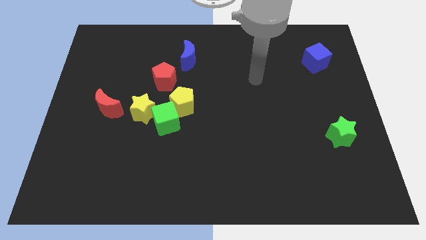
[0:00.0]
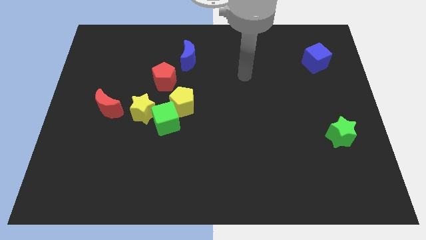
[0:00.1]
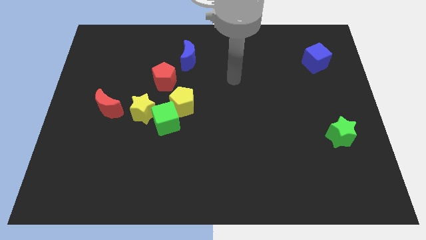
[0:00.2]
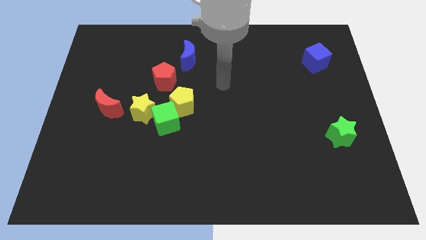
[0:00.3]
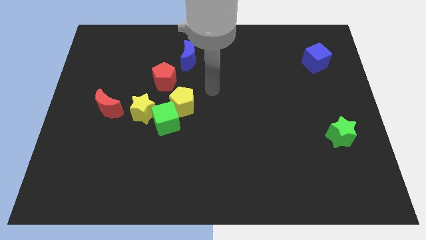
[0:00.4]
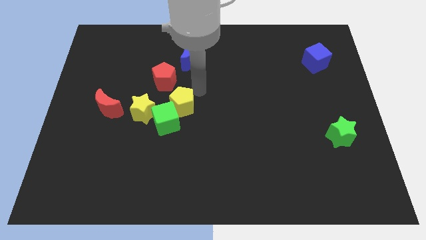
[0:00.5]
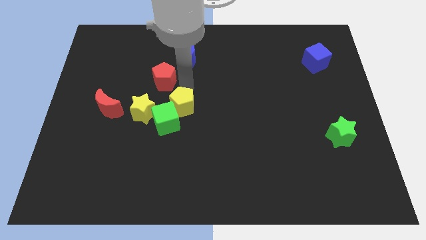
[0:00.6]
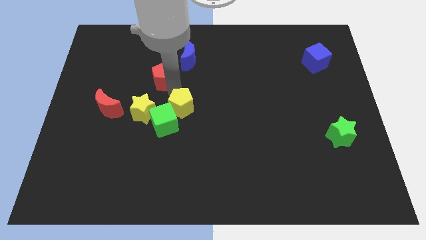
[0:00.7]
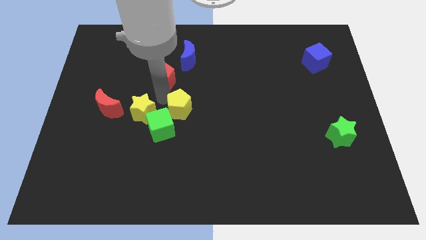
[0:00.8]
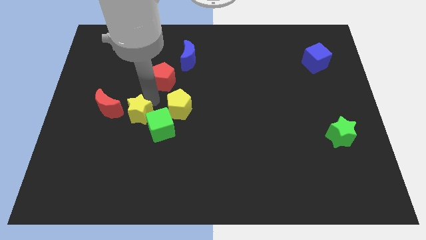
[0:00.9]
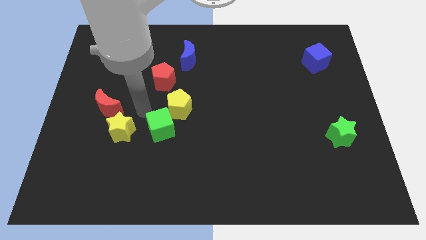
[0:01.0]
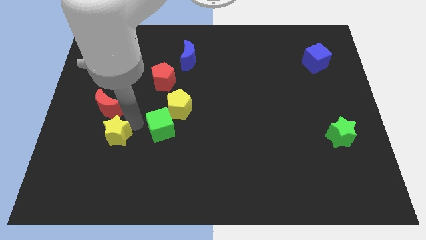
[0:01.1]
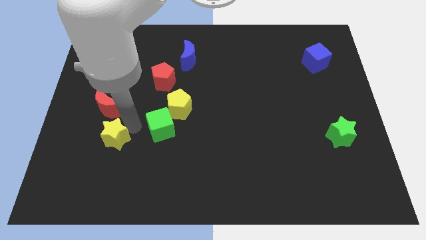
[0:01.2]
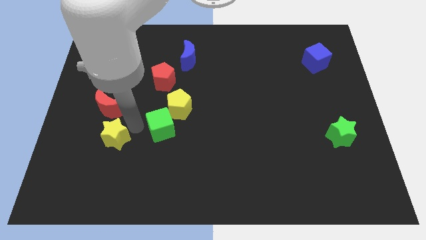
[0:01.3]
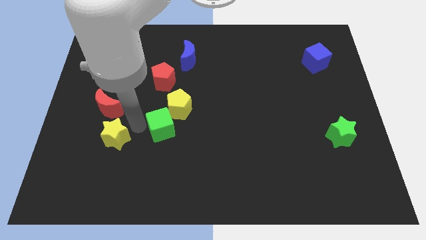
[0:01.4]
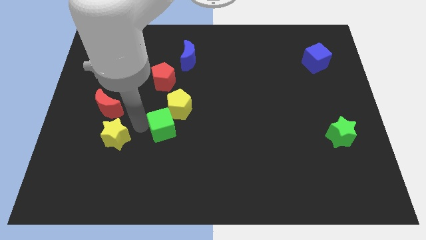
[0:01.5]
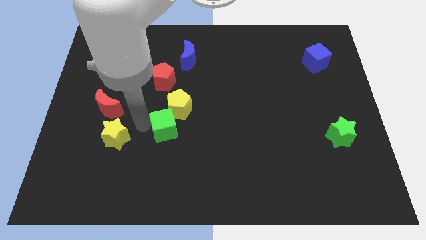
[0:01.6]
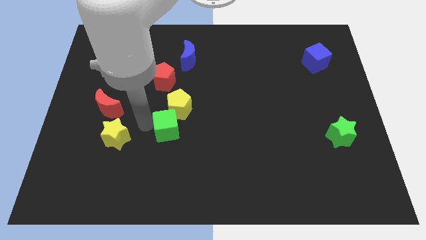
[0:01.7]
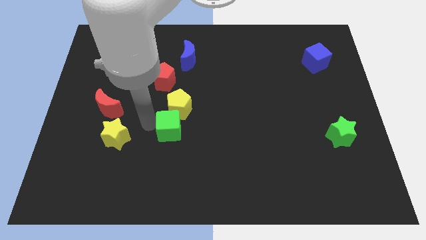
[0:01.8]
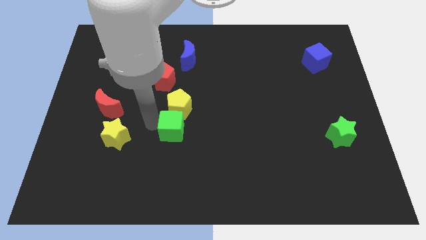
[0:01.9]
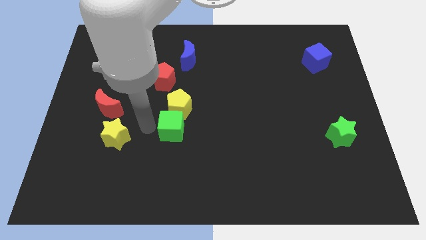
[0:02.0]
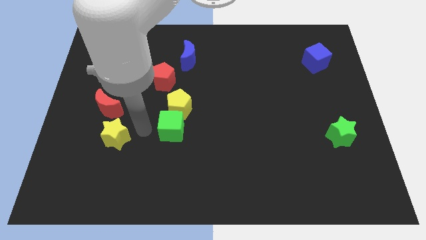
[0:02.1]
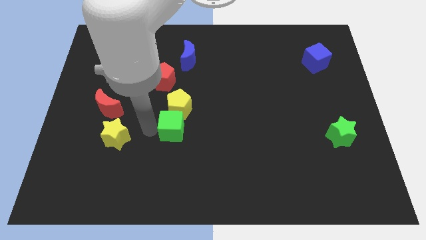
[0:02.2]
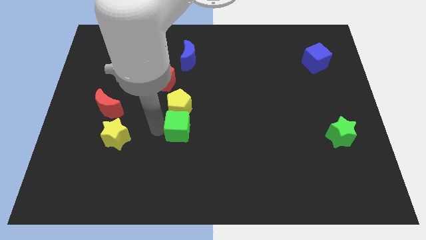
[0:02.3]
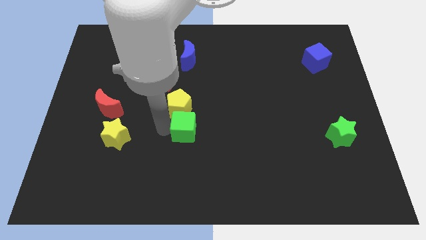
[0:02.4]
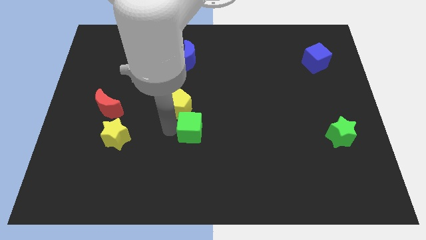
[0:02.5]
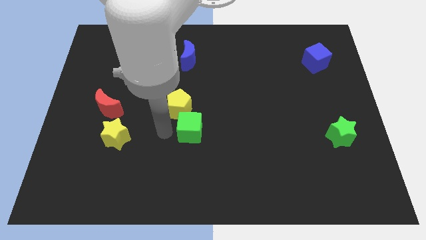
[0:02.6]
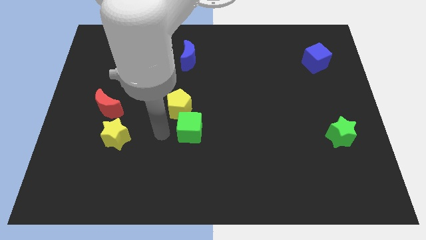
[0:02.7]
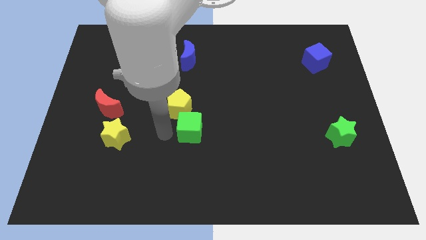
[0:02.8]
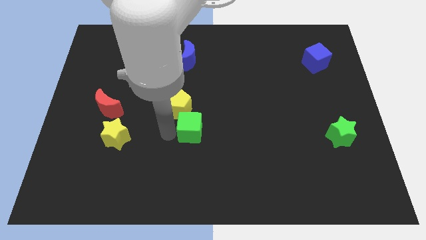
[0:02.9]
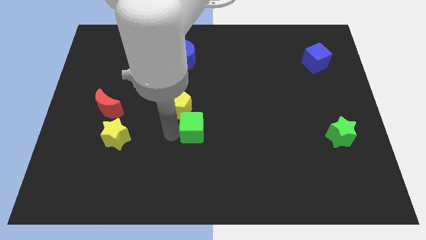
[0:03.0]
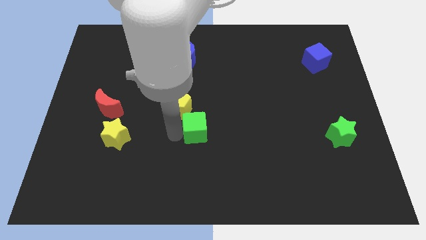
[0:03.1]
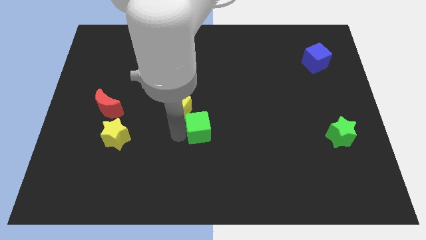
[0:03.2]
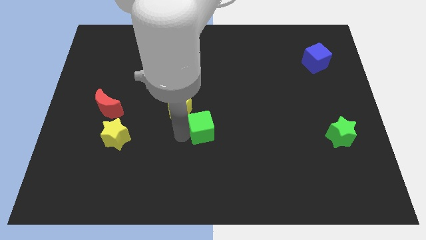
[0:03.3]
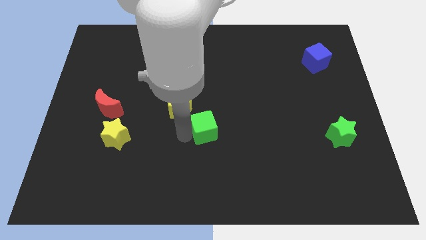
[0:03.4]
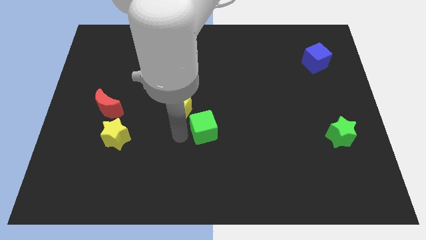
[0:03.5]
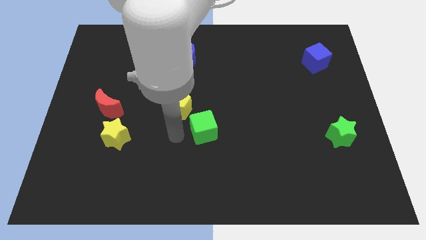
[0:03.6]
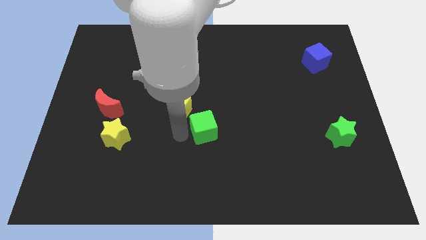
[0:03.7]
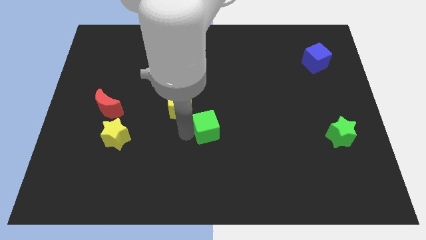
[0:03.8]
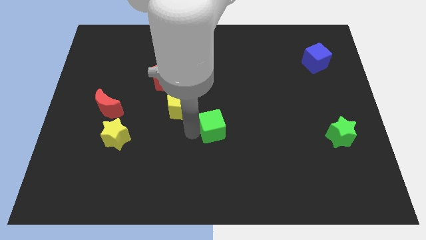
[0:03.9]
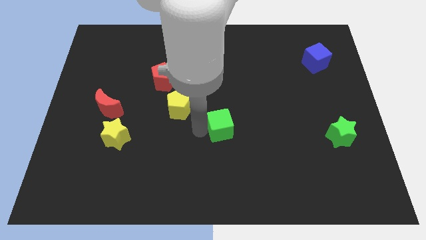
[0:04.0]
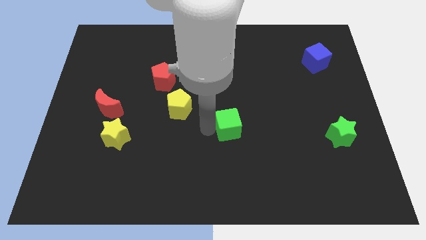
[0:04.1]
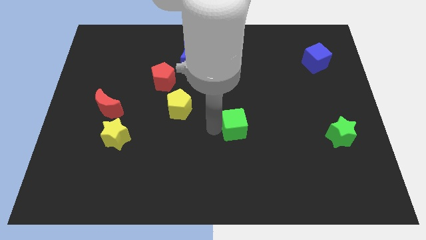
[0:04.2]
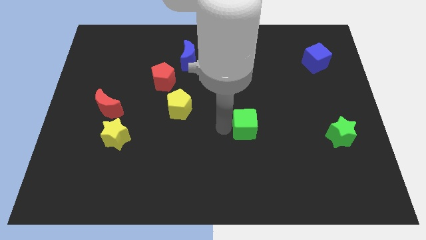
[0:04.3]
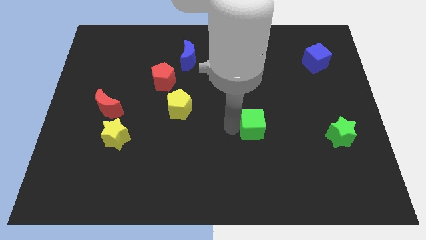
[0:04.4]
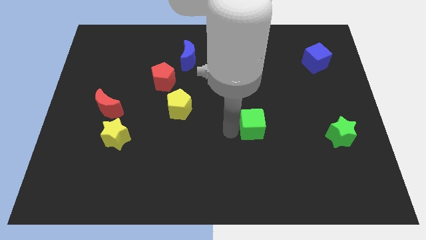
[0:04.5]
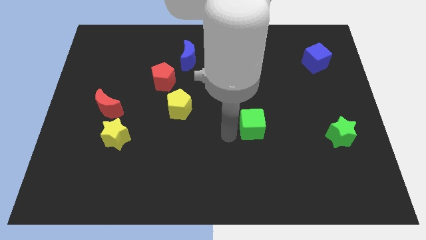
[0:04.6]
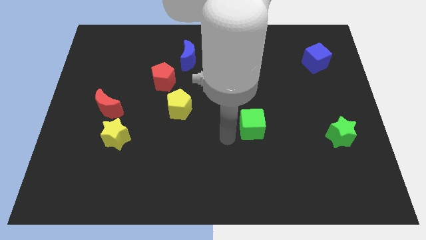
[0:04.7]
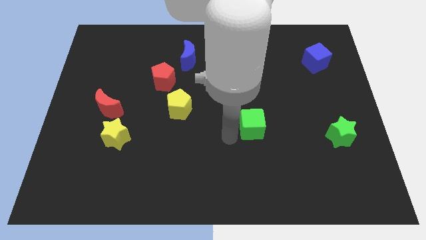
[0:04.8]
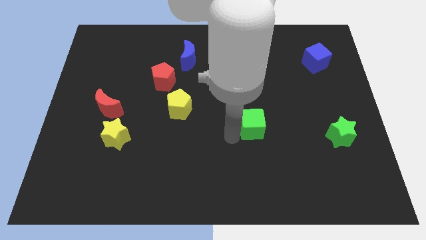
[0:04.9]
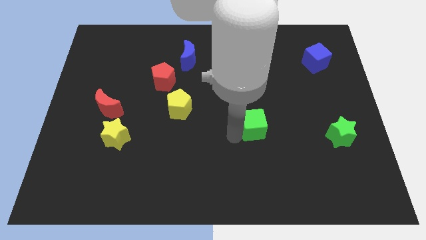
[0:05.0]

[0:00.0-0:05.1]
move the green cube to the right

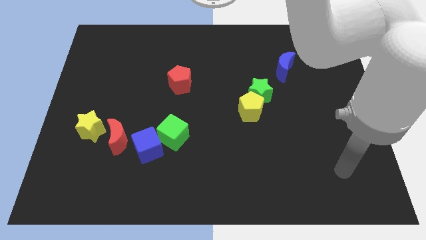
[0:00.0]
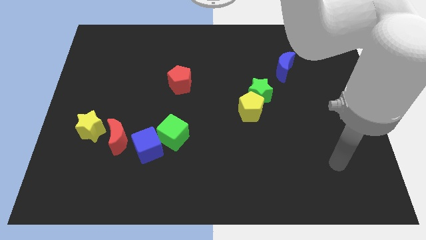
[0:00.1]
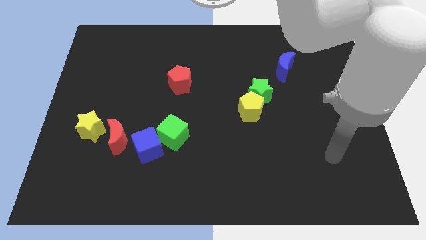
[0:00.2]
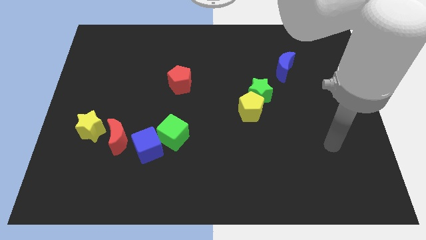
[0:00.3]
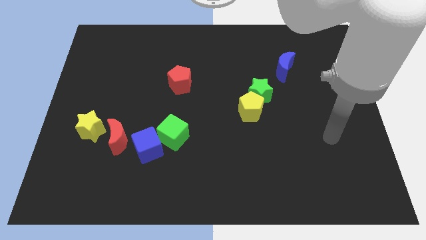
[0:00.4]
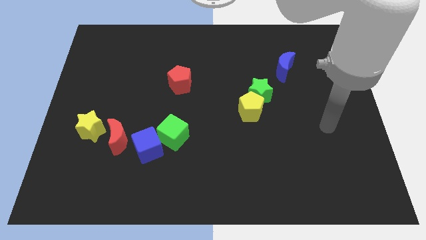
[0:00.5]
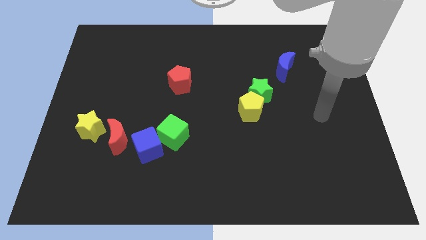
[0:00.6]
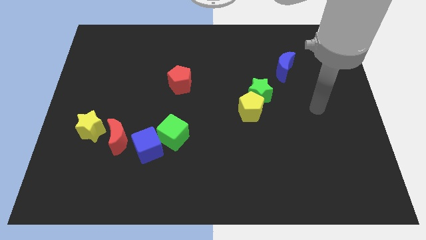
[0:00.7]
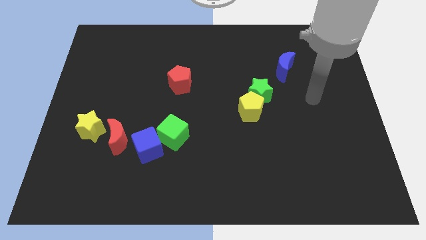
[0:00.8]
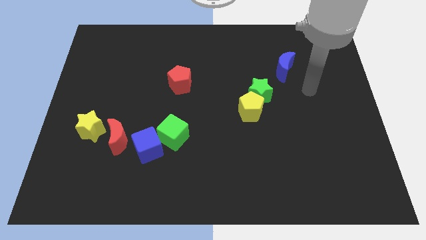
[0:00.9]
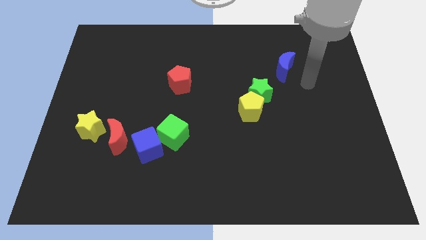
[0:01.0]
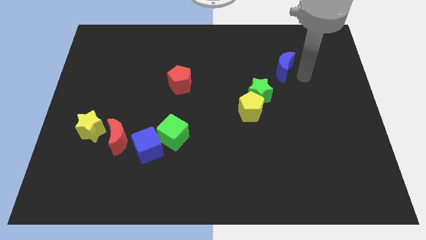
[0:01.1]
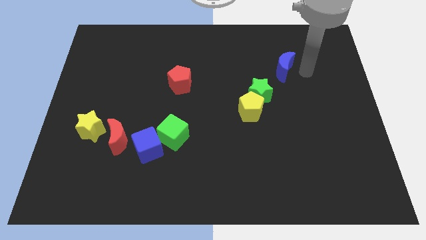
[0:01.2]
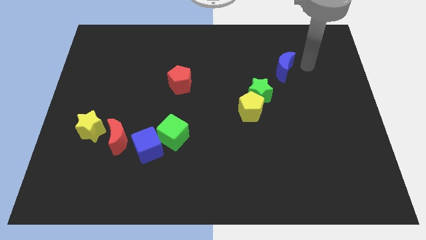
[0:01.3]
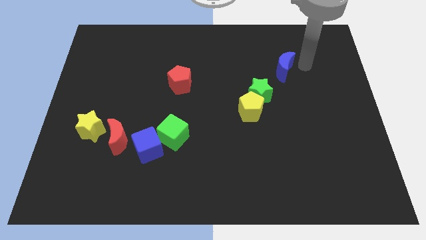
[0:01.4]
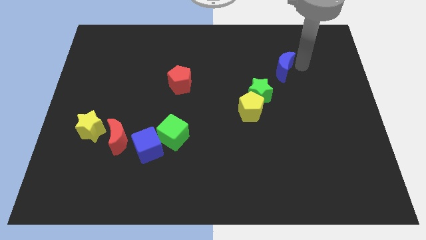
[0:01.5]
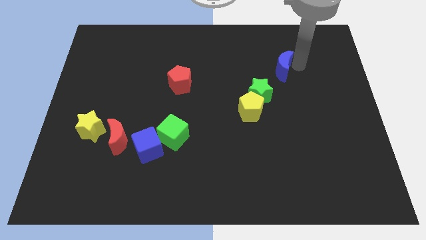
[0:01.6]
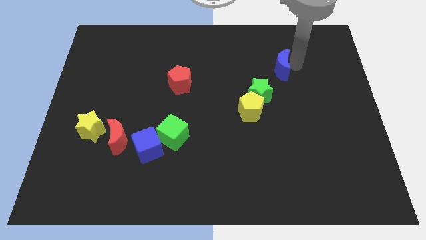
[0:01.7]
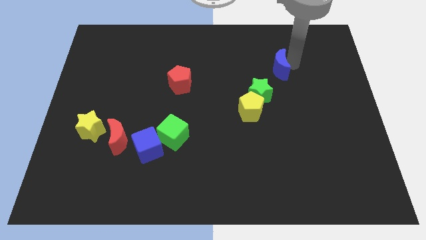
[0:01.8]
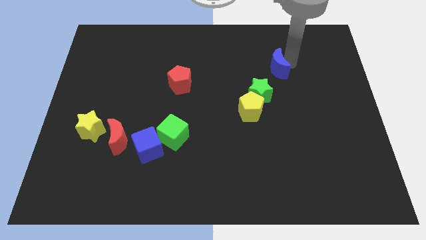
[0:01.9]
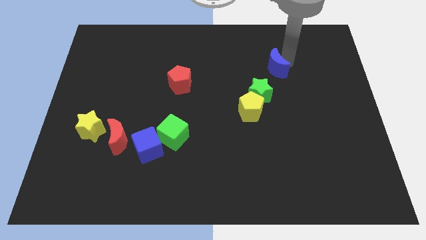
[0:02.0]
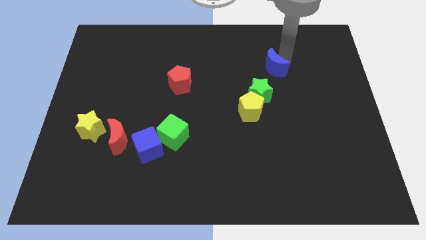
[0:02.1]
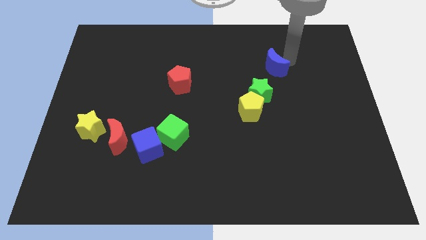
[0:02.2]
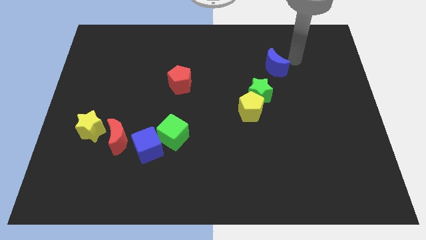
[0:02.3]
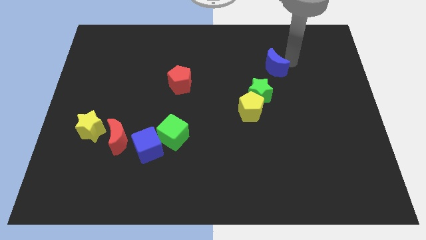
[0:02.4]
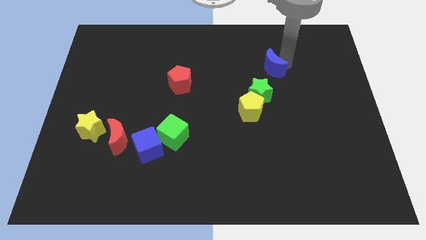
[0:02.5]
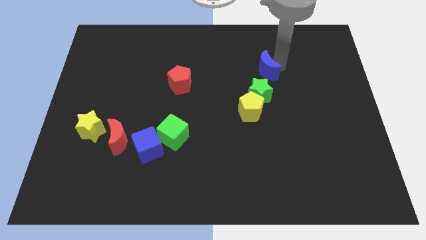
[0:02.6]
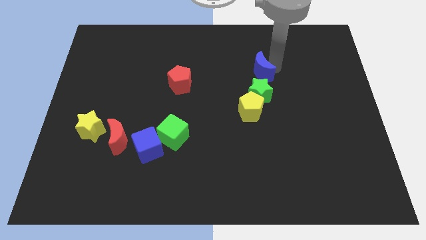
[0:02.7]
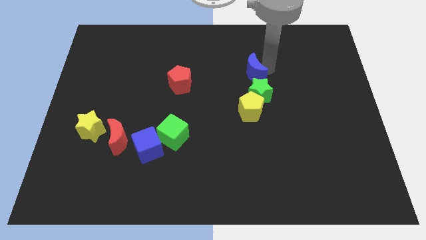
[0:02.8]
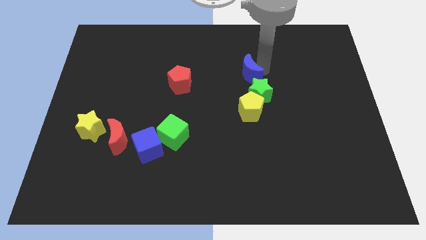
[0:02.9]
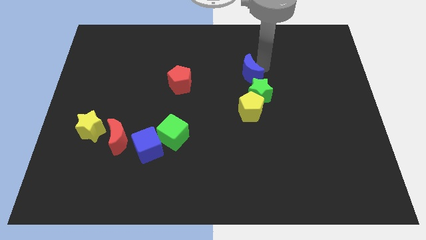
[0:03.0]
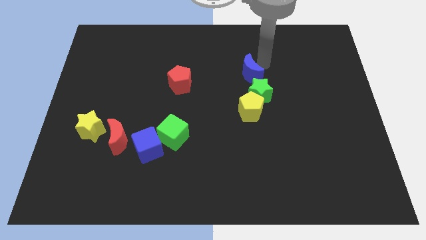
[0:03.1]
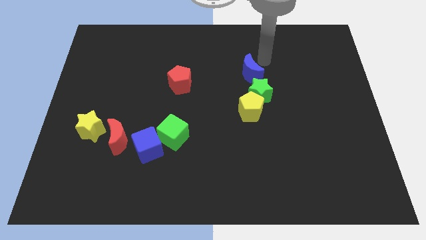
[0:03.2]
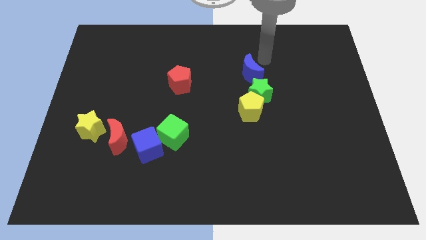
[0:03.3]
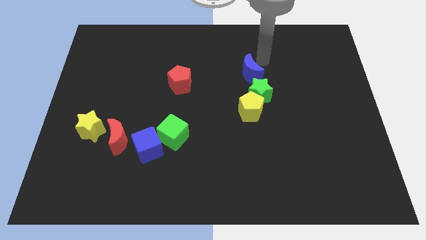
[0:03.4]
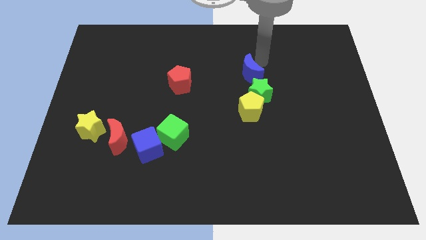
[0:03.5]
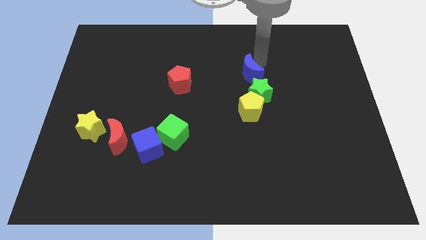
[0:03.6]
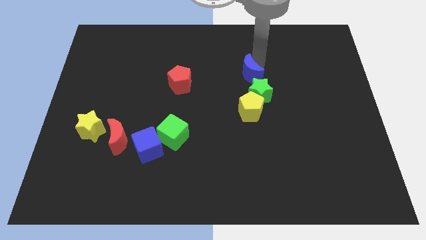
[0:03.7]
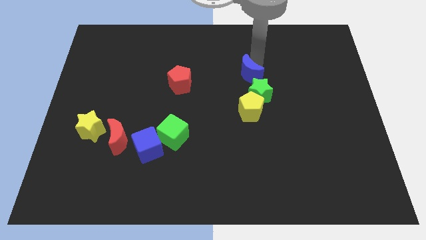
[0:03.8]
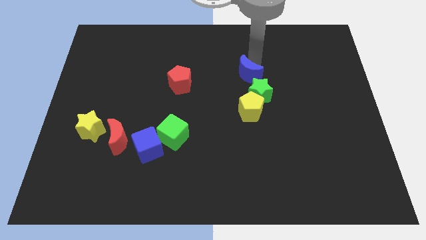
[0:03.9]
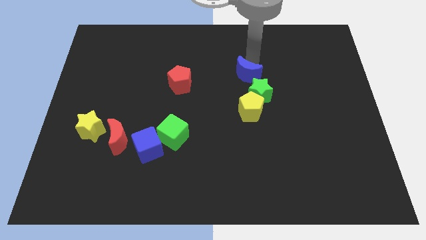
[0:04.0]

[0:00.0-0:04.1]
move the blue moon slightly downwards and to the left
